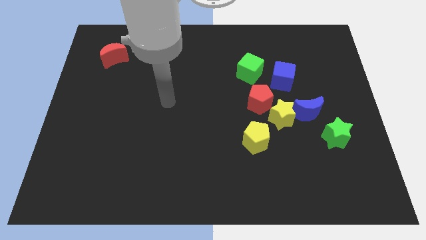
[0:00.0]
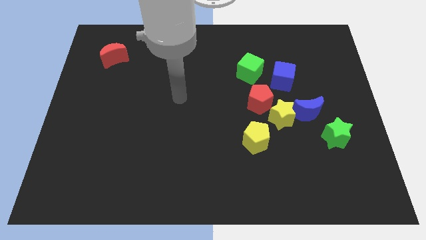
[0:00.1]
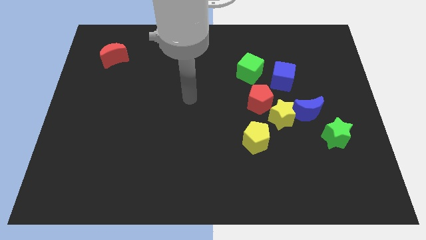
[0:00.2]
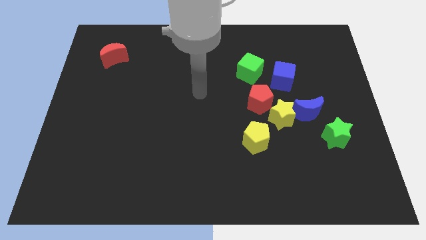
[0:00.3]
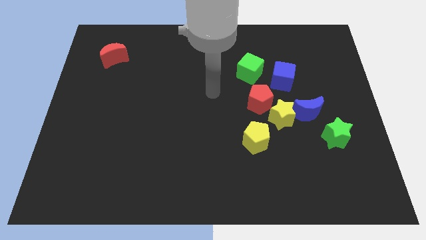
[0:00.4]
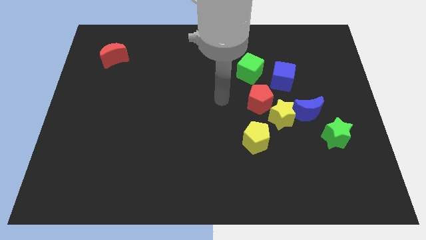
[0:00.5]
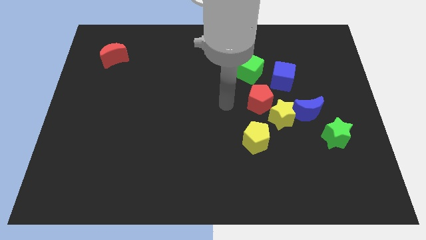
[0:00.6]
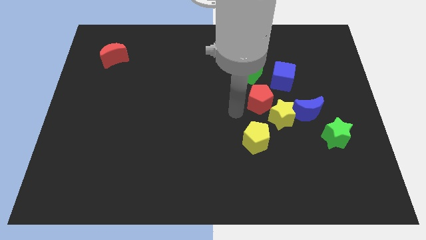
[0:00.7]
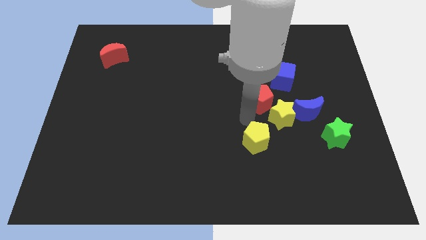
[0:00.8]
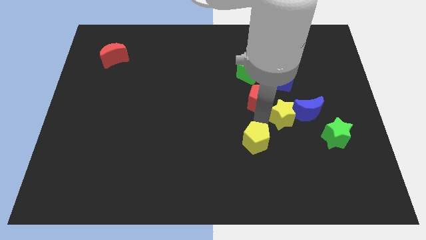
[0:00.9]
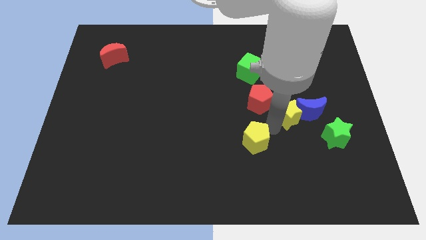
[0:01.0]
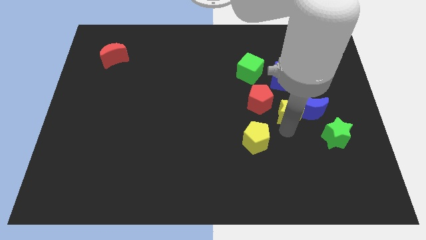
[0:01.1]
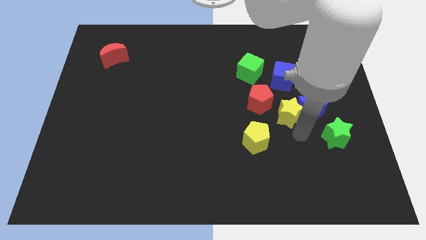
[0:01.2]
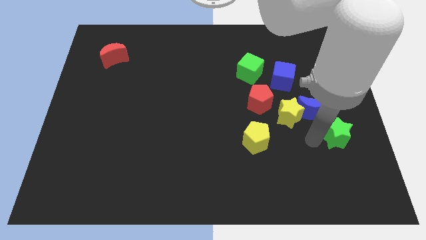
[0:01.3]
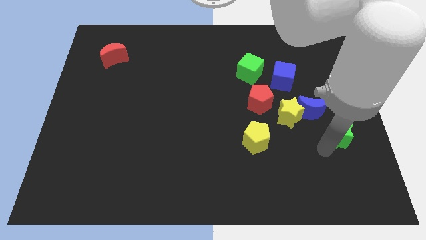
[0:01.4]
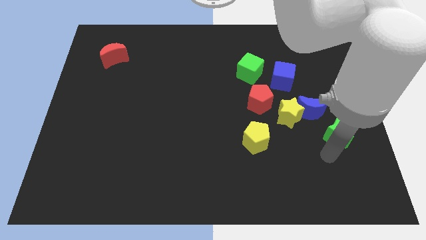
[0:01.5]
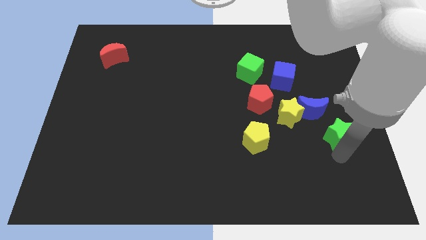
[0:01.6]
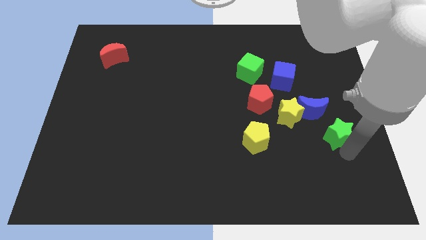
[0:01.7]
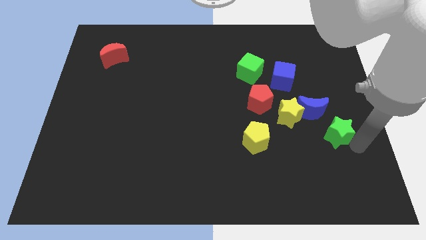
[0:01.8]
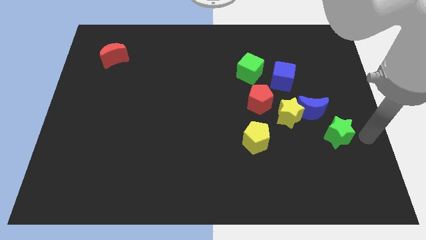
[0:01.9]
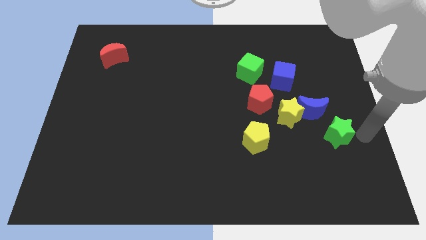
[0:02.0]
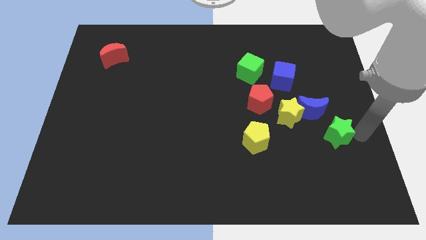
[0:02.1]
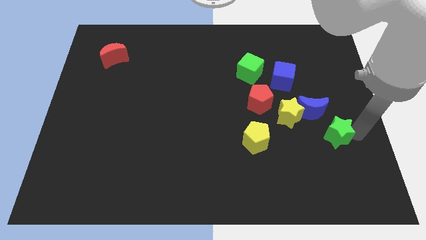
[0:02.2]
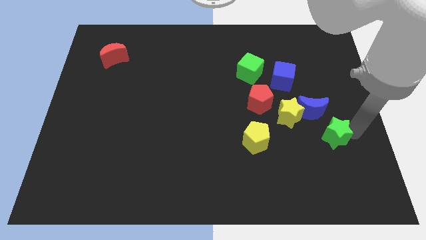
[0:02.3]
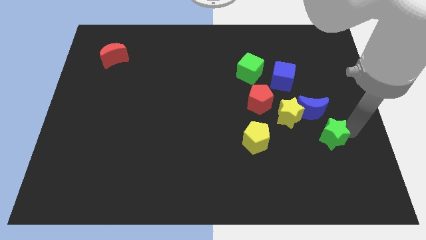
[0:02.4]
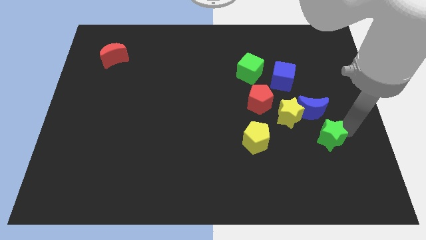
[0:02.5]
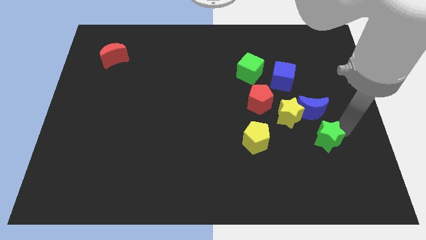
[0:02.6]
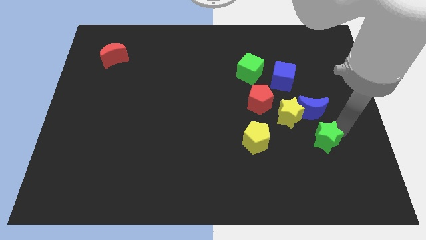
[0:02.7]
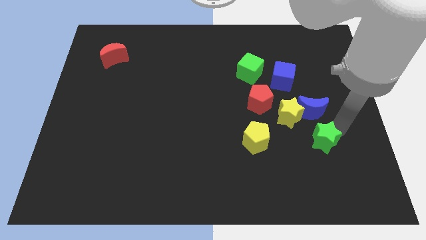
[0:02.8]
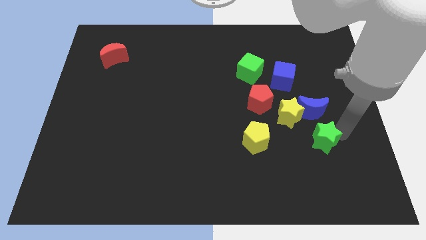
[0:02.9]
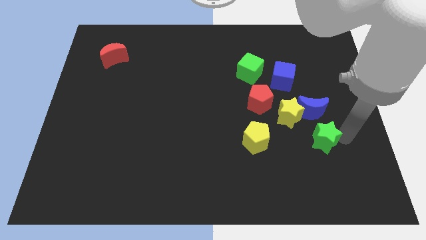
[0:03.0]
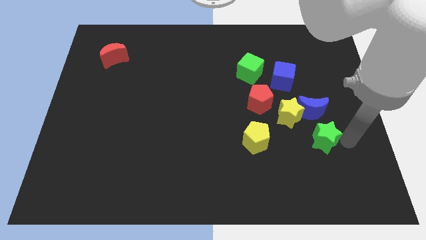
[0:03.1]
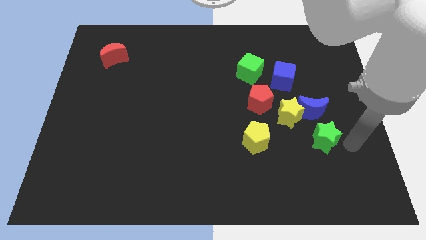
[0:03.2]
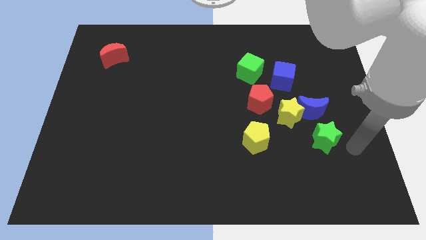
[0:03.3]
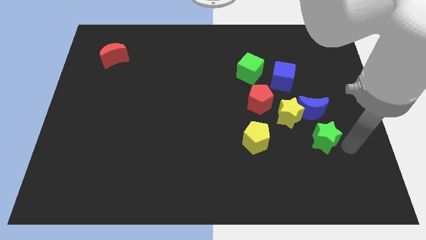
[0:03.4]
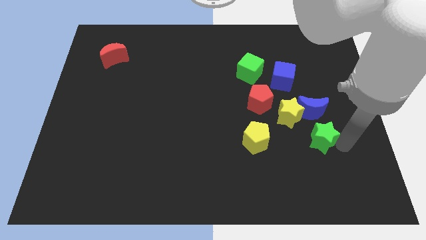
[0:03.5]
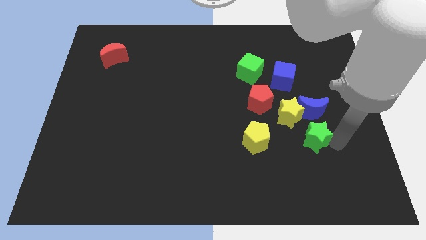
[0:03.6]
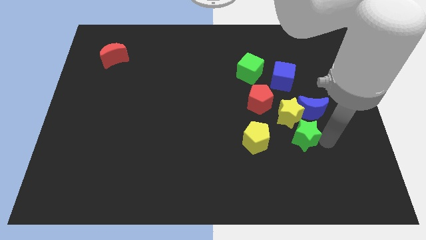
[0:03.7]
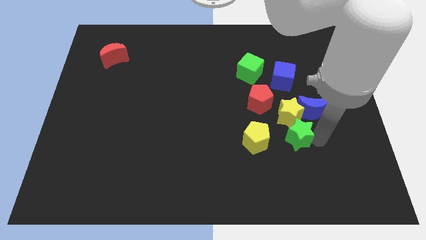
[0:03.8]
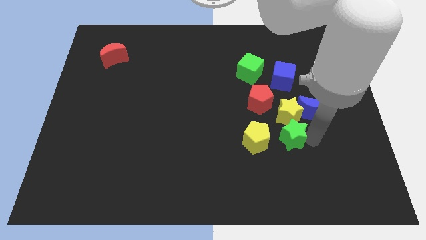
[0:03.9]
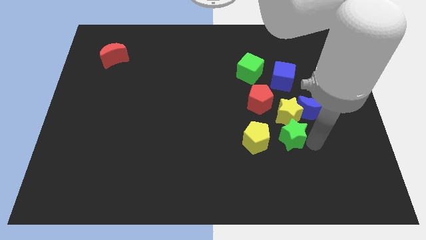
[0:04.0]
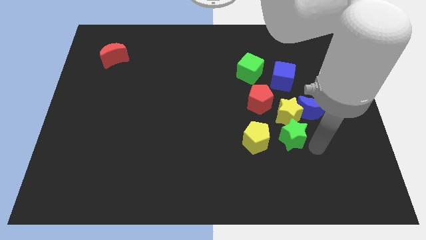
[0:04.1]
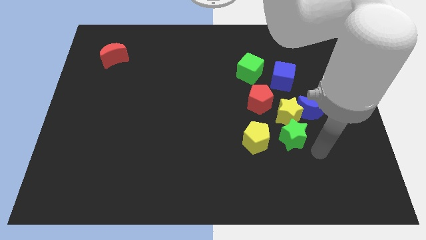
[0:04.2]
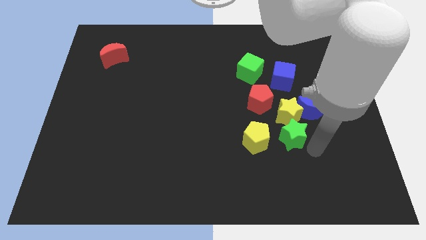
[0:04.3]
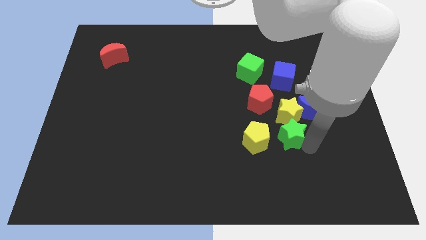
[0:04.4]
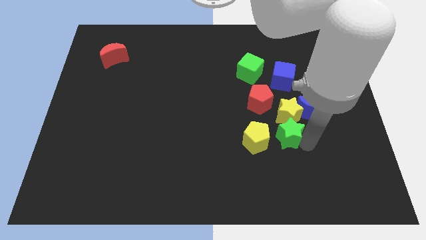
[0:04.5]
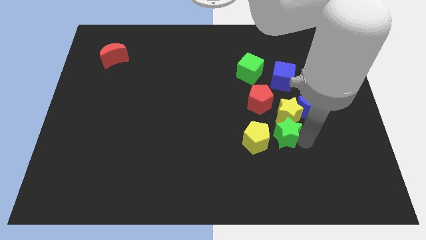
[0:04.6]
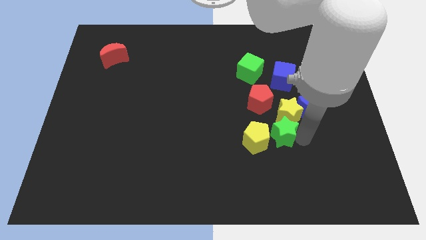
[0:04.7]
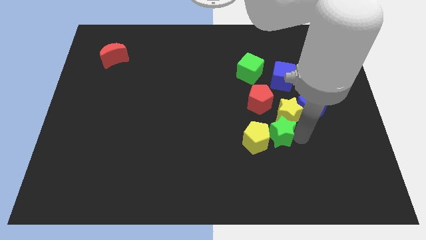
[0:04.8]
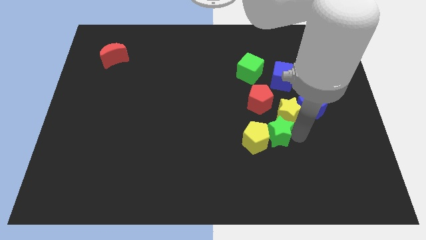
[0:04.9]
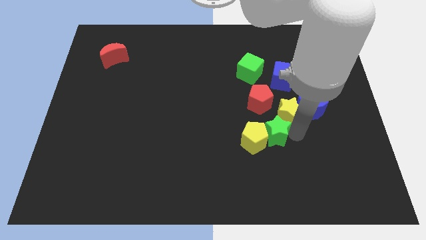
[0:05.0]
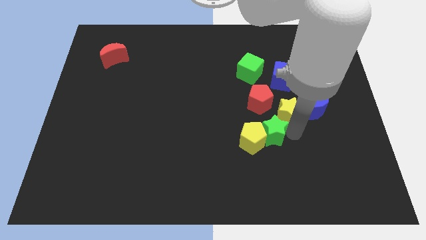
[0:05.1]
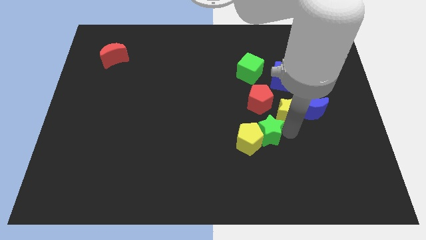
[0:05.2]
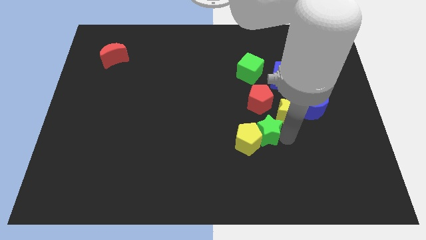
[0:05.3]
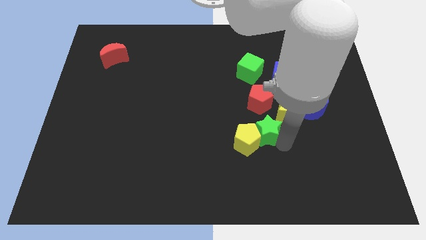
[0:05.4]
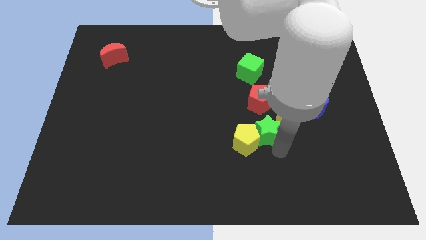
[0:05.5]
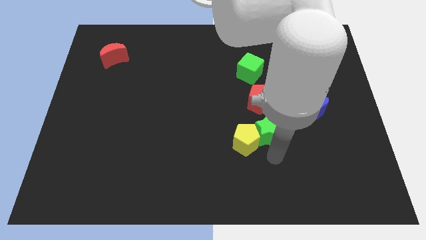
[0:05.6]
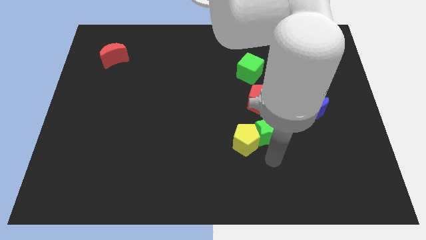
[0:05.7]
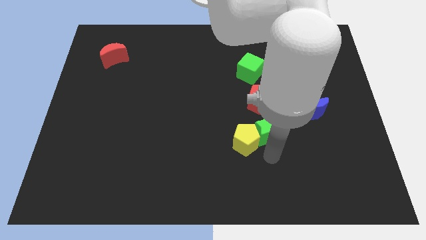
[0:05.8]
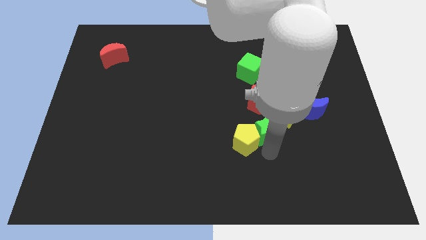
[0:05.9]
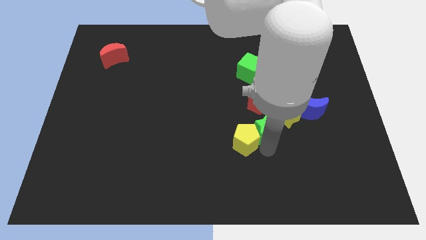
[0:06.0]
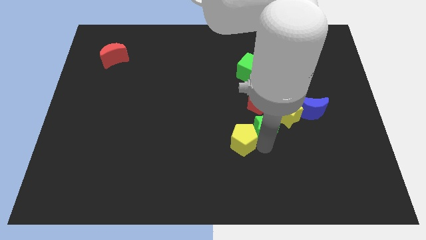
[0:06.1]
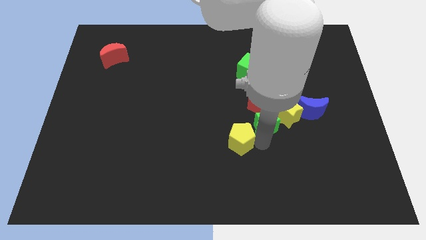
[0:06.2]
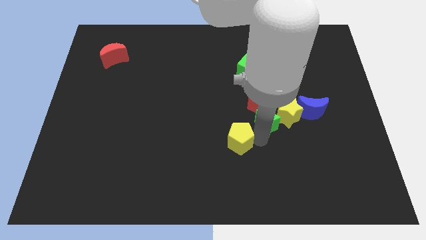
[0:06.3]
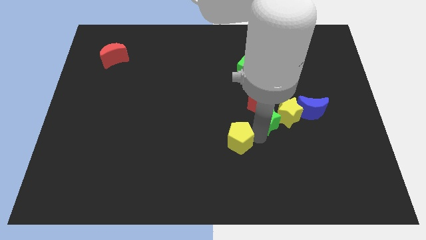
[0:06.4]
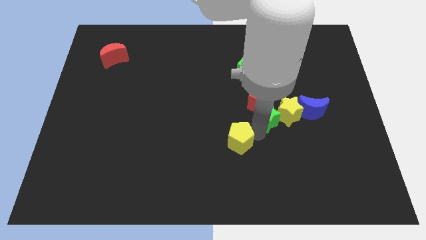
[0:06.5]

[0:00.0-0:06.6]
move the green star close to the red pentagon
